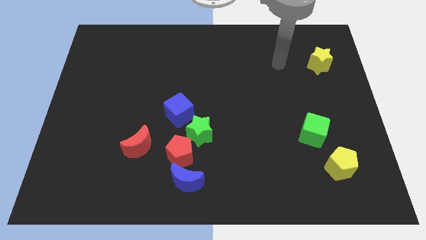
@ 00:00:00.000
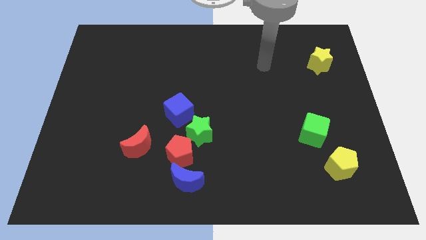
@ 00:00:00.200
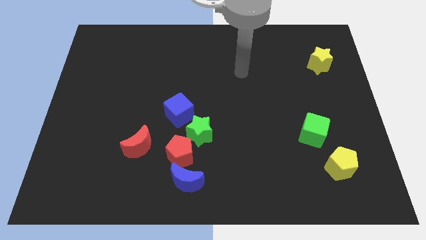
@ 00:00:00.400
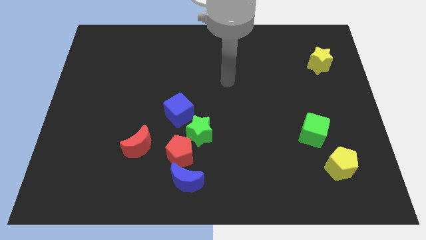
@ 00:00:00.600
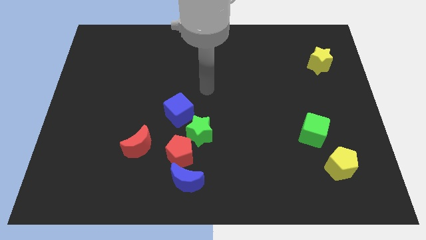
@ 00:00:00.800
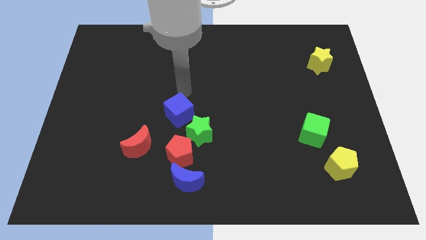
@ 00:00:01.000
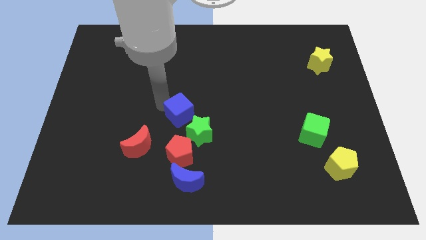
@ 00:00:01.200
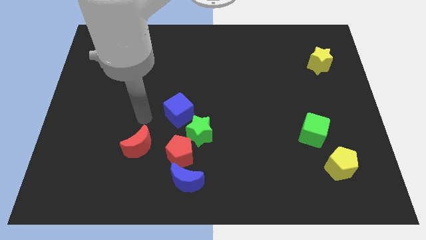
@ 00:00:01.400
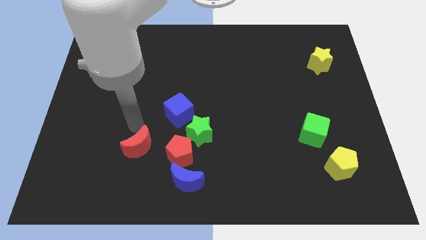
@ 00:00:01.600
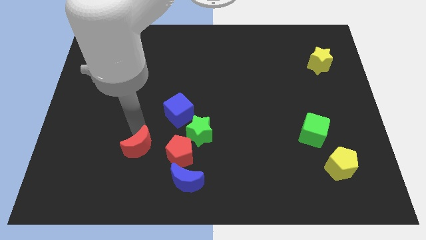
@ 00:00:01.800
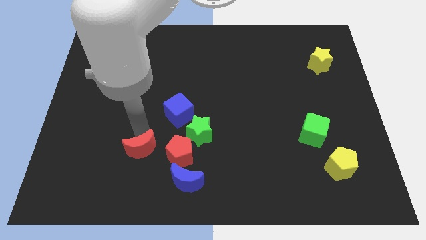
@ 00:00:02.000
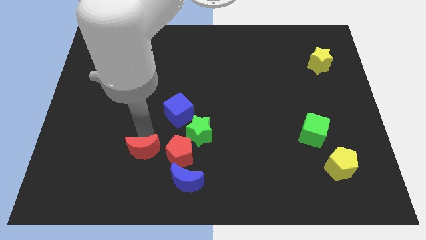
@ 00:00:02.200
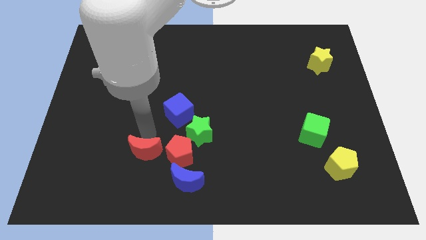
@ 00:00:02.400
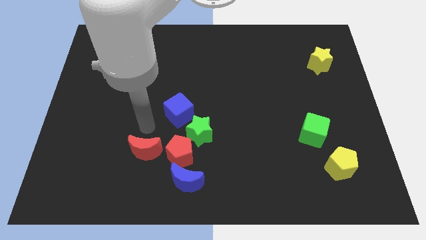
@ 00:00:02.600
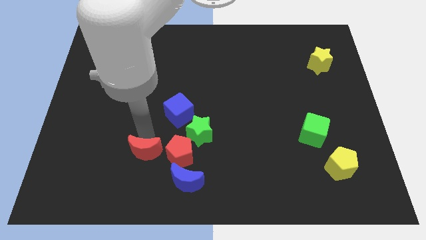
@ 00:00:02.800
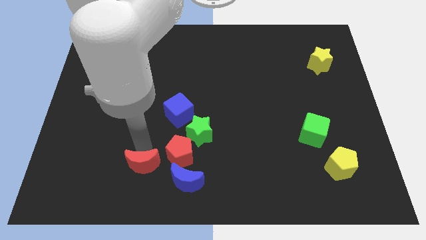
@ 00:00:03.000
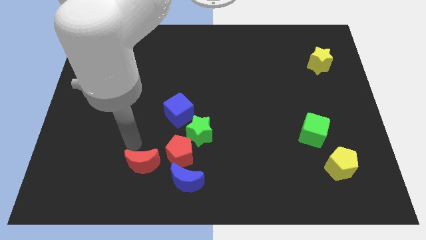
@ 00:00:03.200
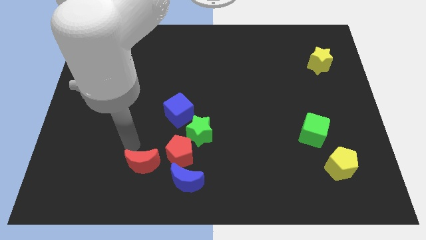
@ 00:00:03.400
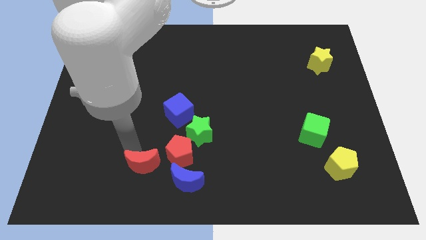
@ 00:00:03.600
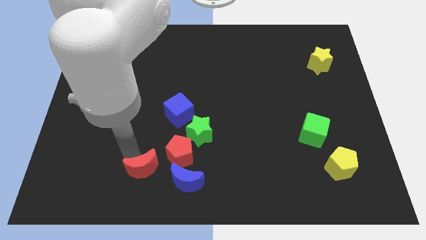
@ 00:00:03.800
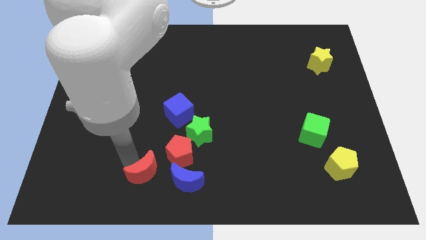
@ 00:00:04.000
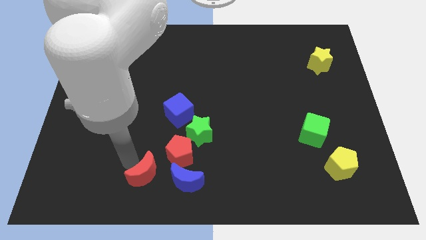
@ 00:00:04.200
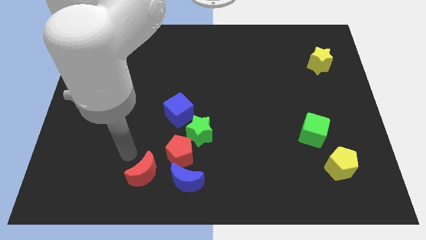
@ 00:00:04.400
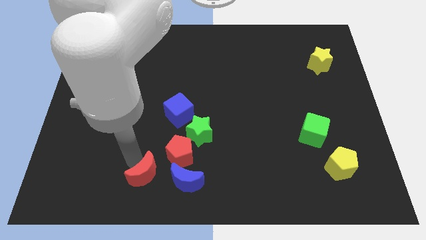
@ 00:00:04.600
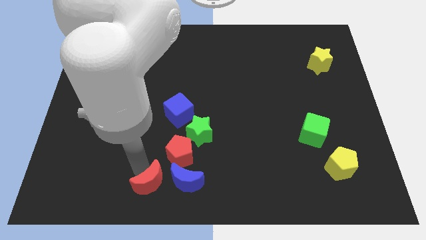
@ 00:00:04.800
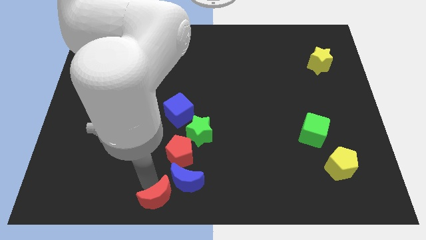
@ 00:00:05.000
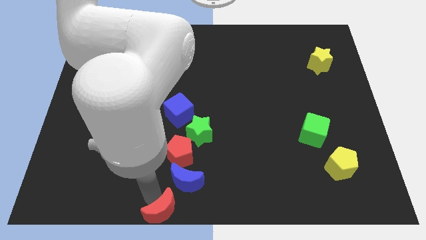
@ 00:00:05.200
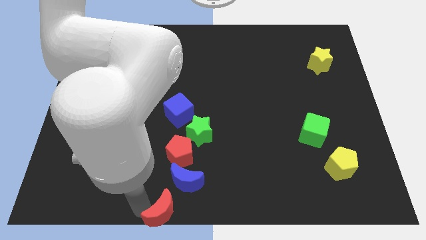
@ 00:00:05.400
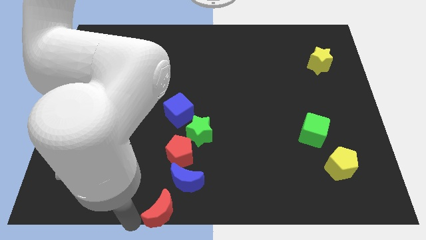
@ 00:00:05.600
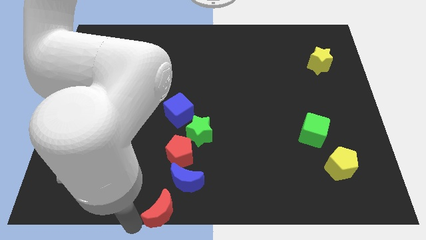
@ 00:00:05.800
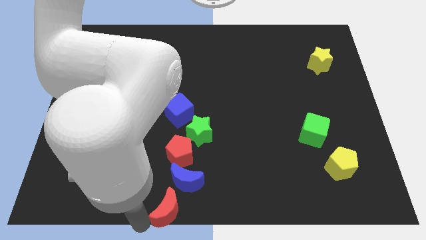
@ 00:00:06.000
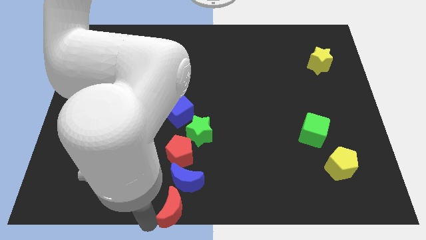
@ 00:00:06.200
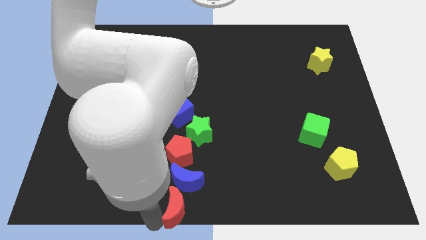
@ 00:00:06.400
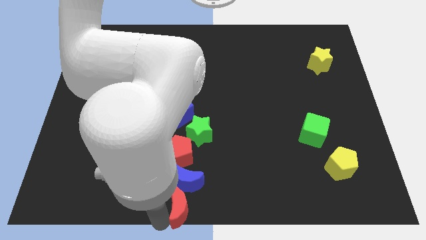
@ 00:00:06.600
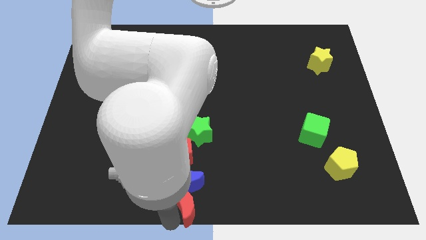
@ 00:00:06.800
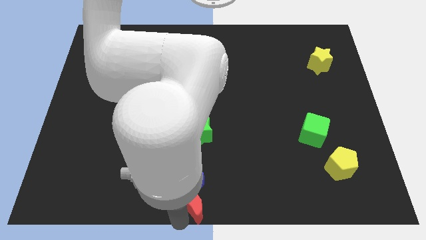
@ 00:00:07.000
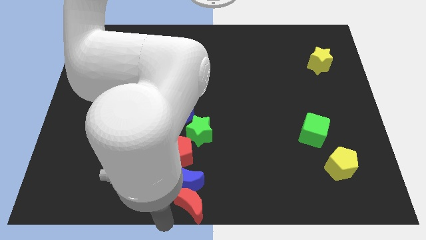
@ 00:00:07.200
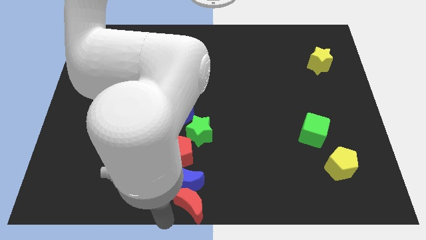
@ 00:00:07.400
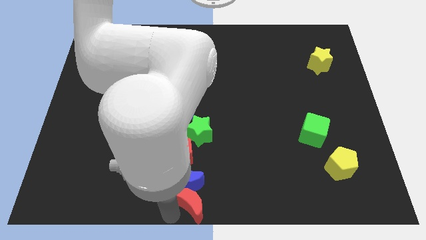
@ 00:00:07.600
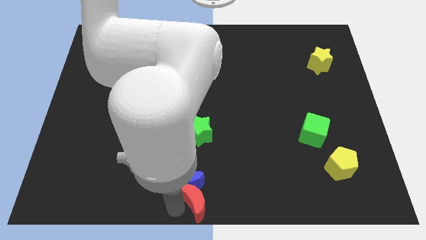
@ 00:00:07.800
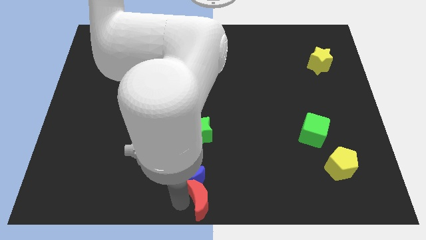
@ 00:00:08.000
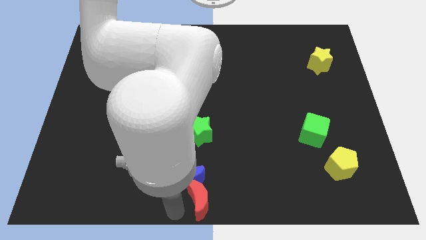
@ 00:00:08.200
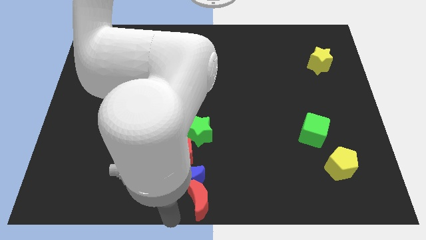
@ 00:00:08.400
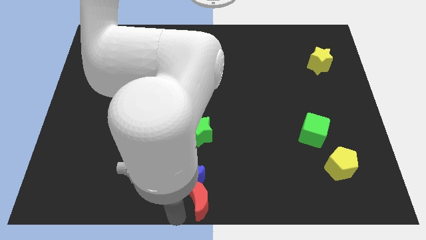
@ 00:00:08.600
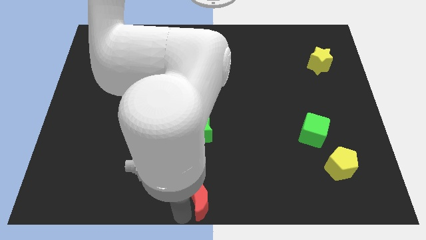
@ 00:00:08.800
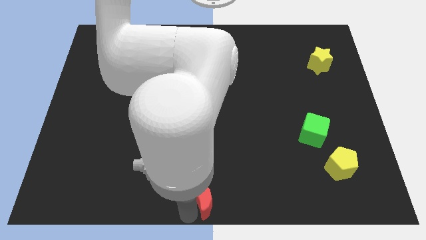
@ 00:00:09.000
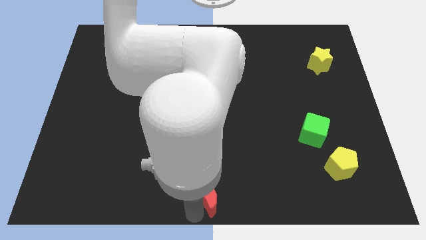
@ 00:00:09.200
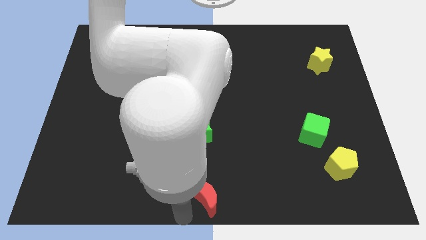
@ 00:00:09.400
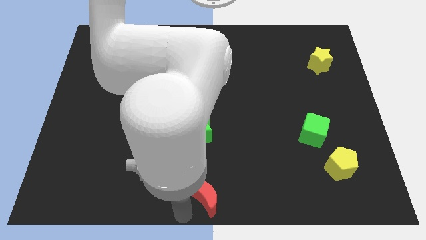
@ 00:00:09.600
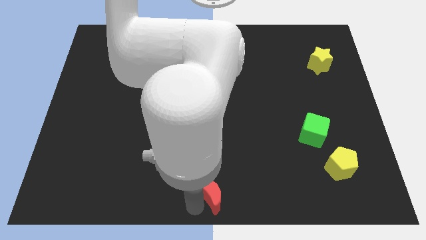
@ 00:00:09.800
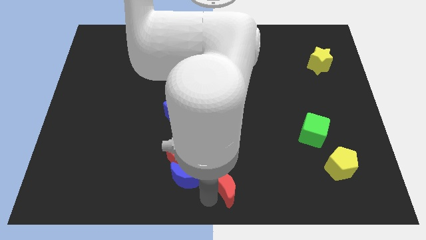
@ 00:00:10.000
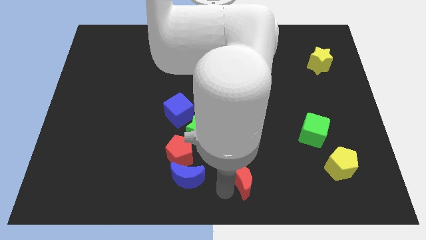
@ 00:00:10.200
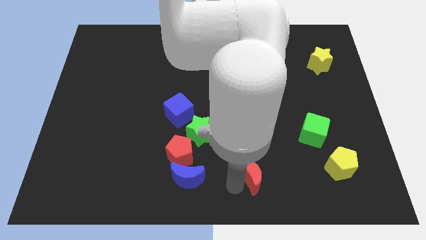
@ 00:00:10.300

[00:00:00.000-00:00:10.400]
move the red moon to the right

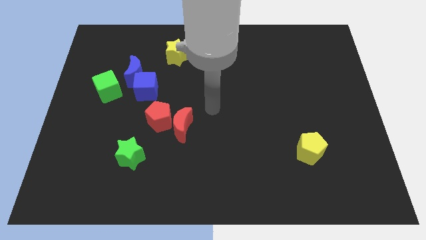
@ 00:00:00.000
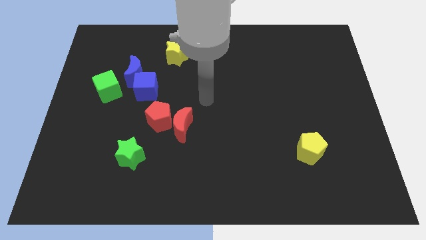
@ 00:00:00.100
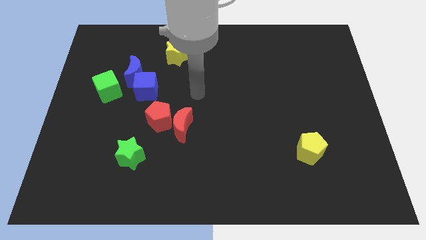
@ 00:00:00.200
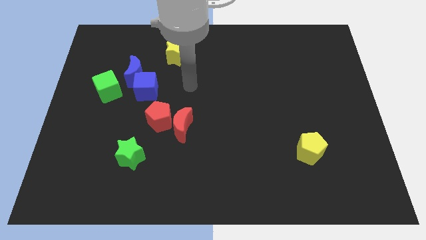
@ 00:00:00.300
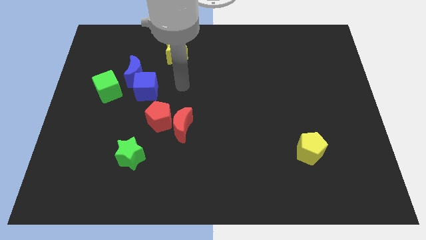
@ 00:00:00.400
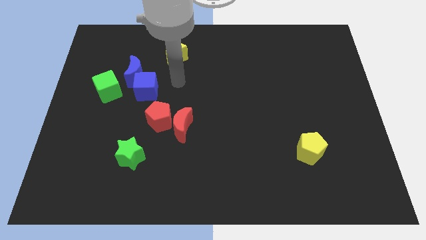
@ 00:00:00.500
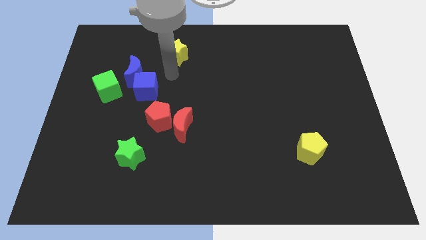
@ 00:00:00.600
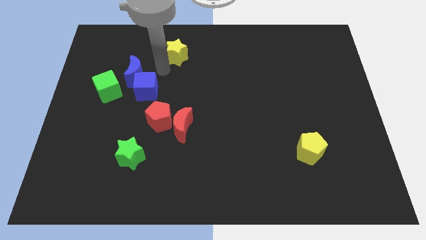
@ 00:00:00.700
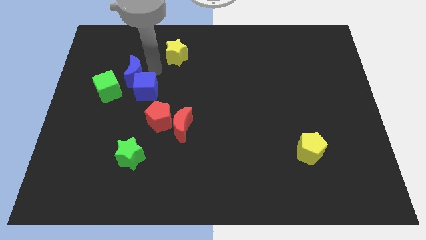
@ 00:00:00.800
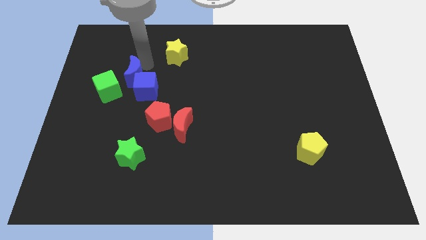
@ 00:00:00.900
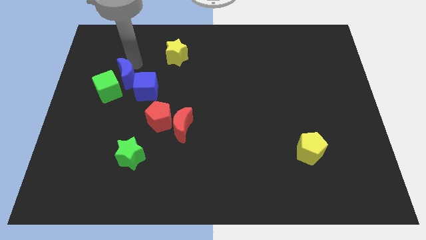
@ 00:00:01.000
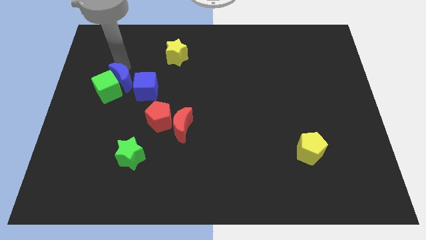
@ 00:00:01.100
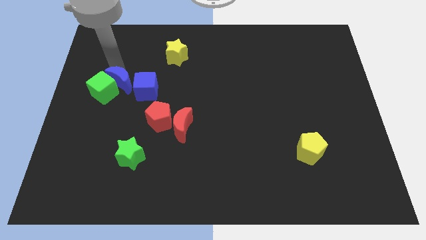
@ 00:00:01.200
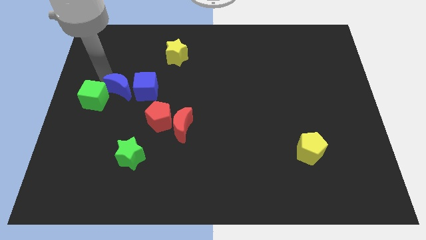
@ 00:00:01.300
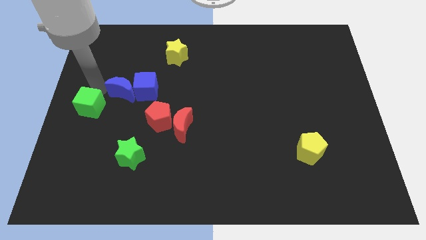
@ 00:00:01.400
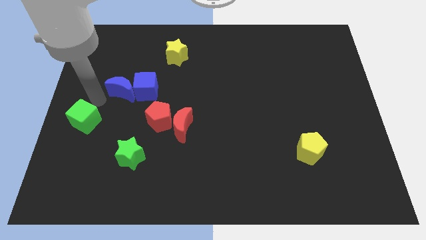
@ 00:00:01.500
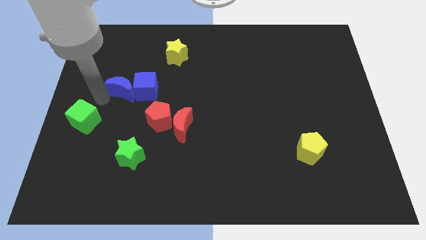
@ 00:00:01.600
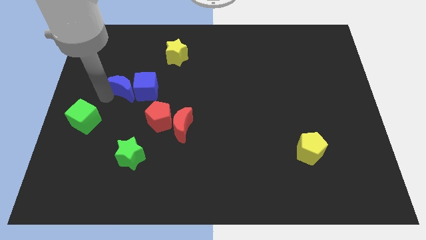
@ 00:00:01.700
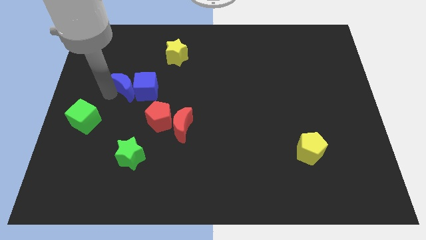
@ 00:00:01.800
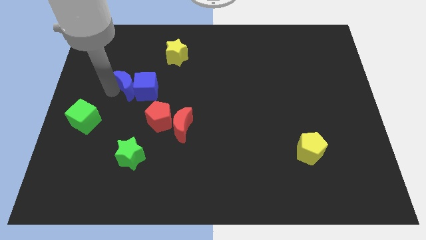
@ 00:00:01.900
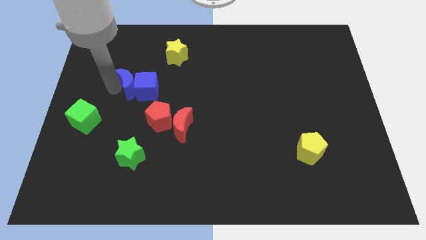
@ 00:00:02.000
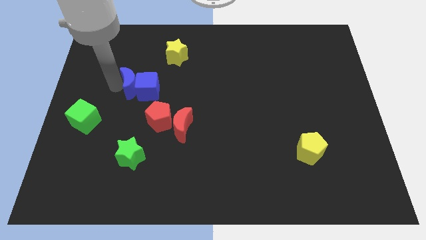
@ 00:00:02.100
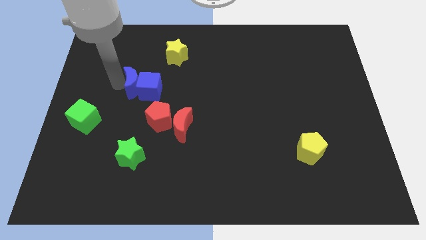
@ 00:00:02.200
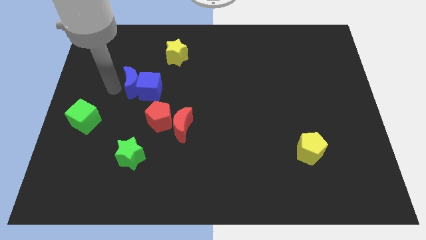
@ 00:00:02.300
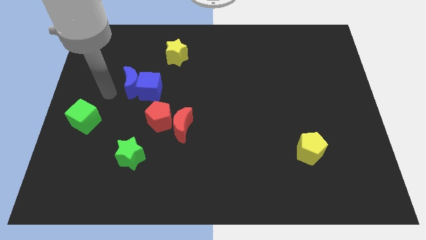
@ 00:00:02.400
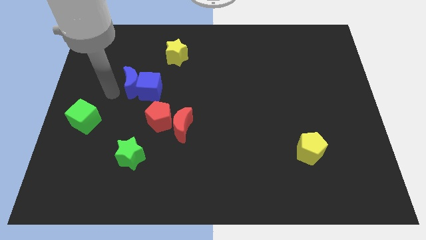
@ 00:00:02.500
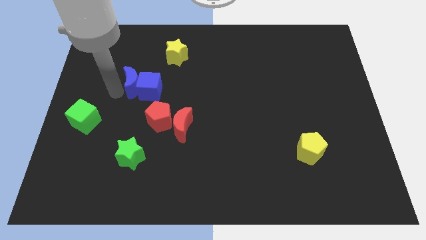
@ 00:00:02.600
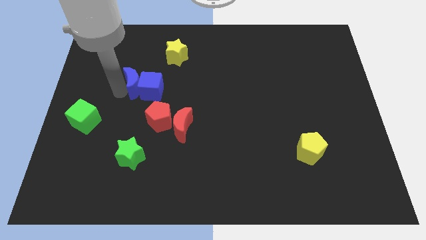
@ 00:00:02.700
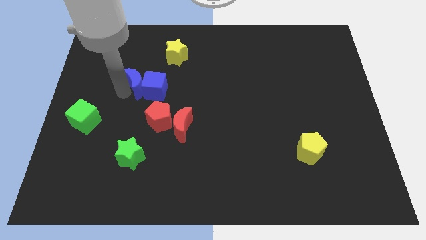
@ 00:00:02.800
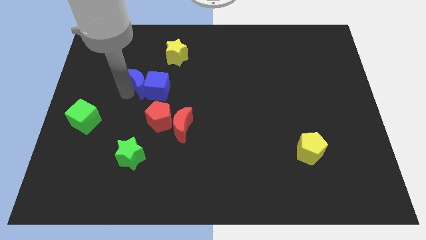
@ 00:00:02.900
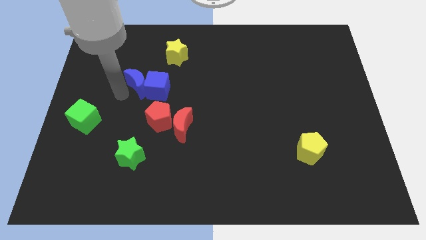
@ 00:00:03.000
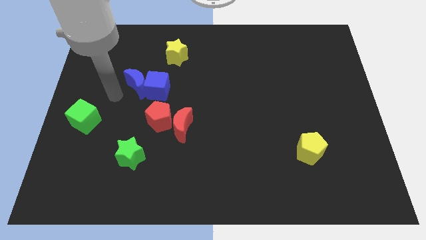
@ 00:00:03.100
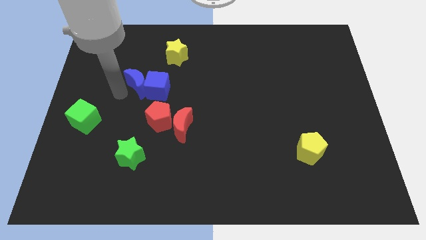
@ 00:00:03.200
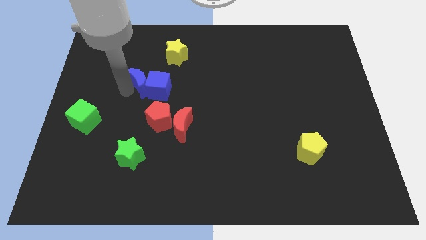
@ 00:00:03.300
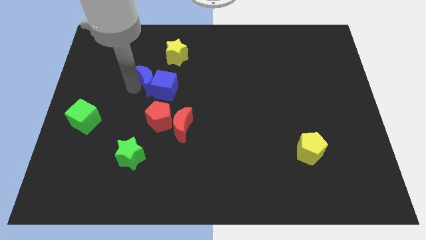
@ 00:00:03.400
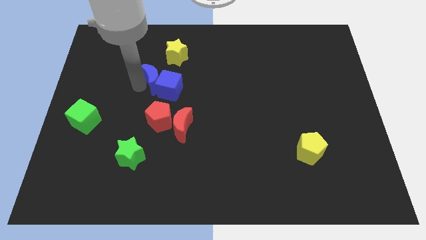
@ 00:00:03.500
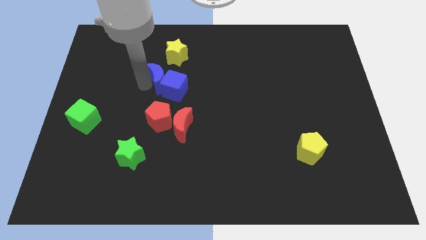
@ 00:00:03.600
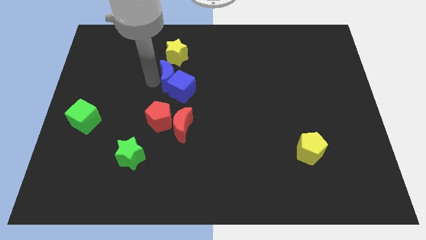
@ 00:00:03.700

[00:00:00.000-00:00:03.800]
slide the blue moon to the right a little bit
